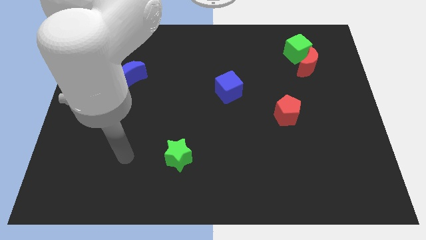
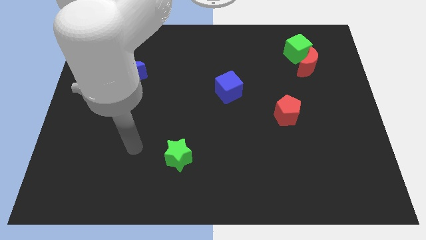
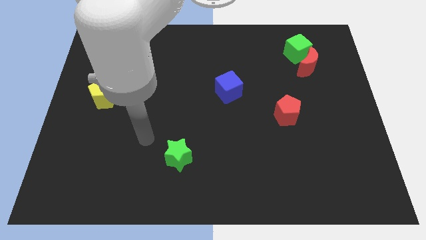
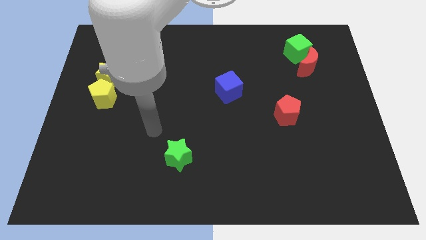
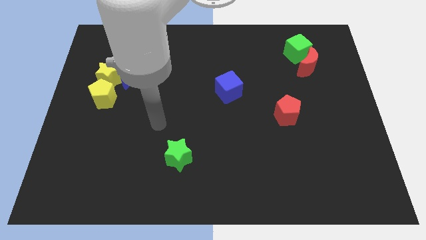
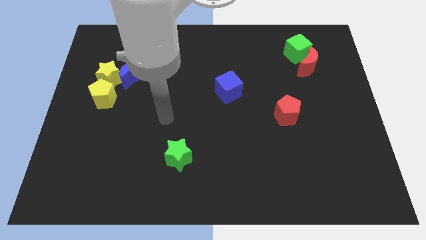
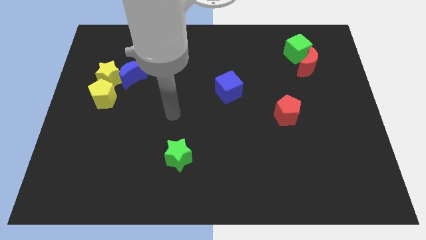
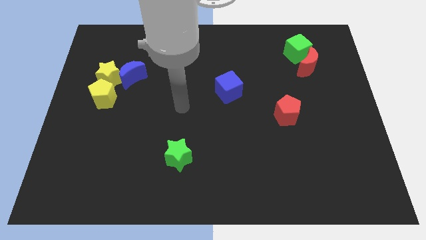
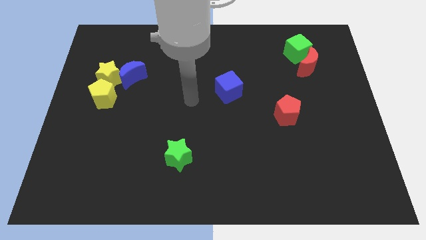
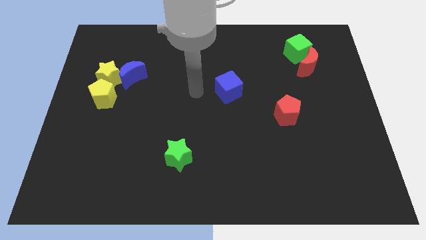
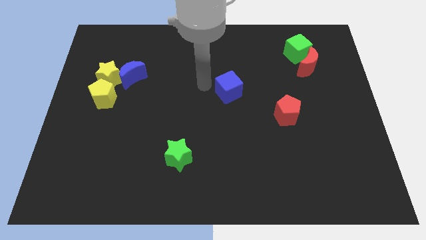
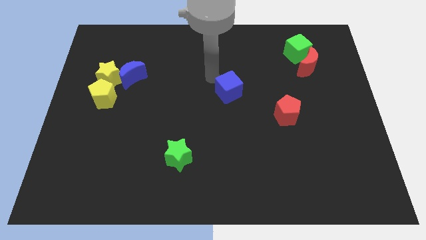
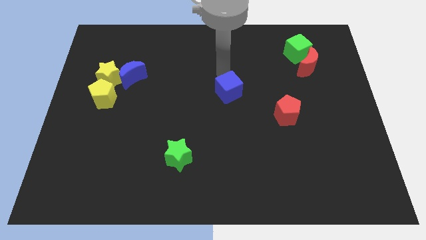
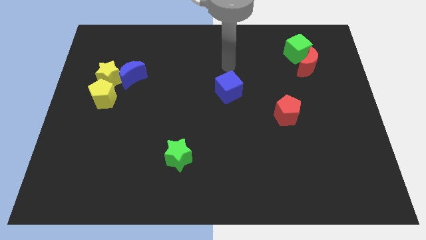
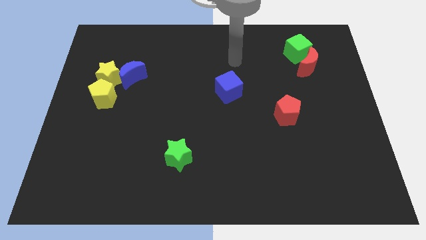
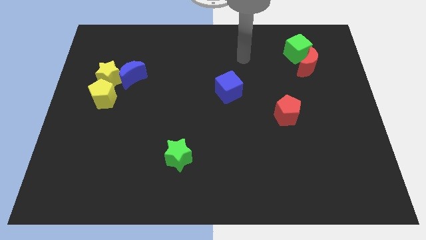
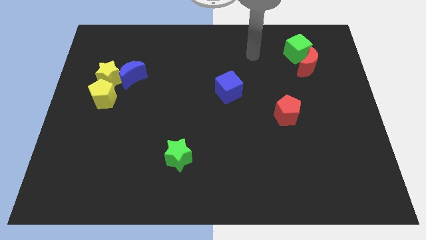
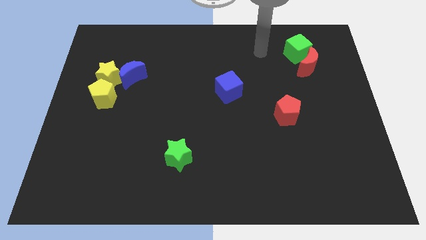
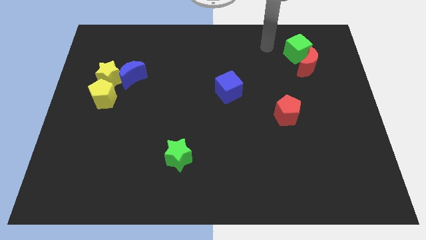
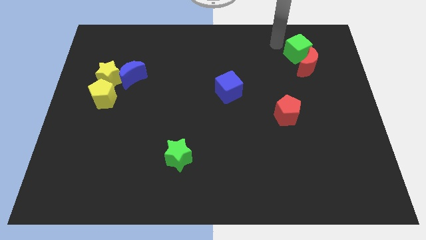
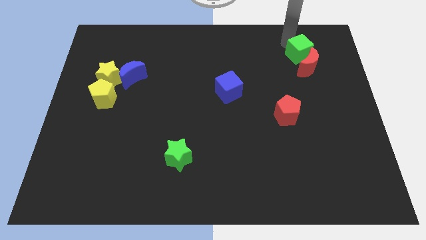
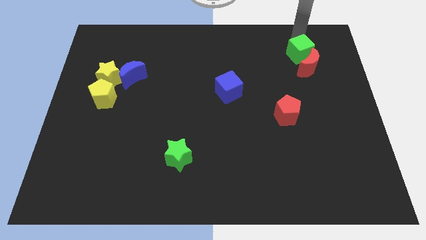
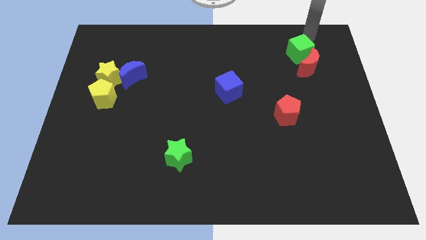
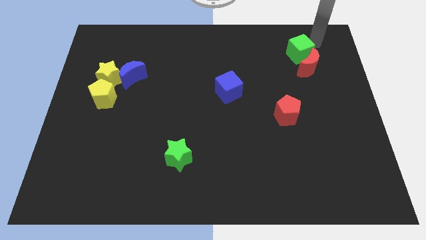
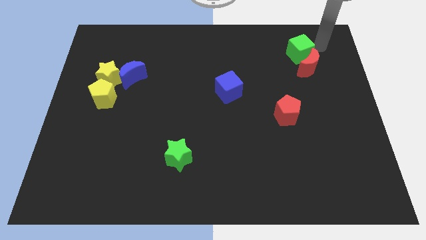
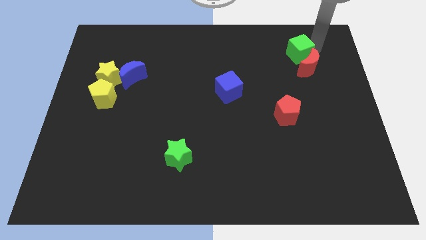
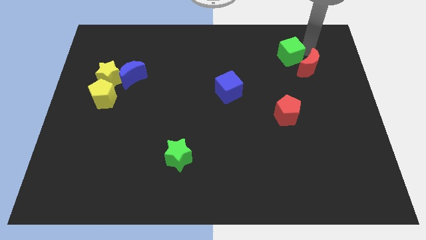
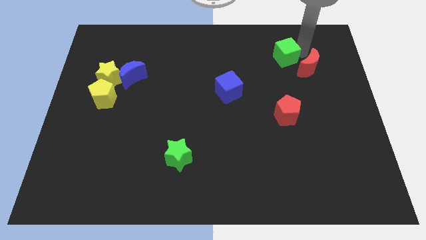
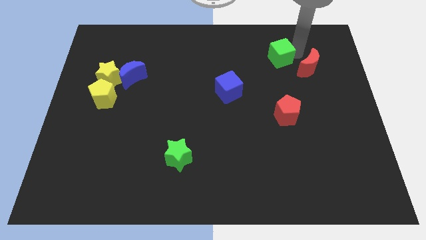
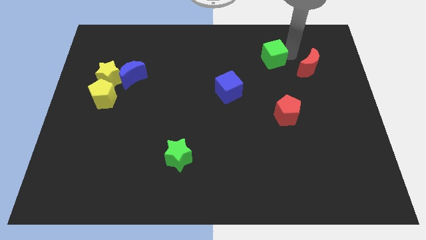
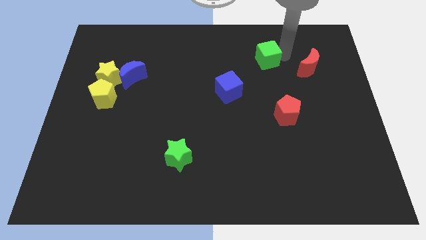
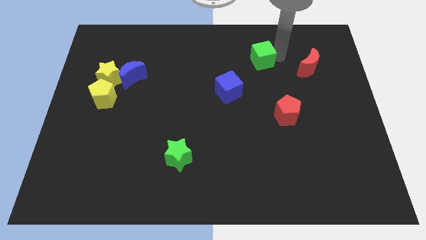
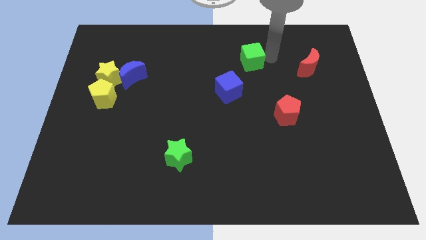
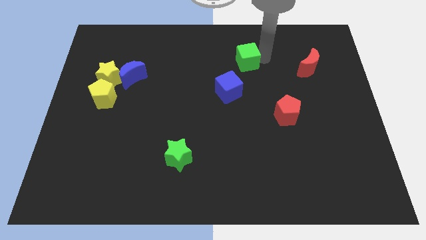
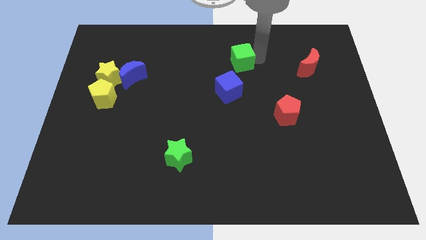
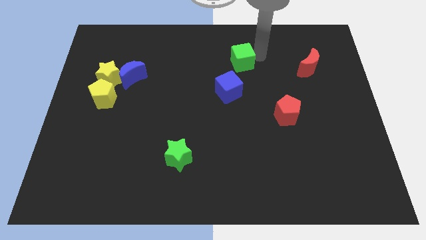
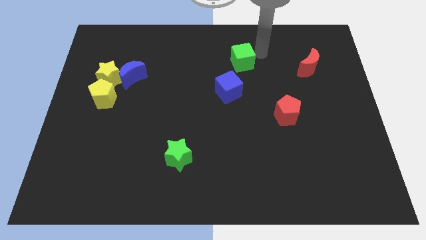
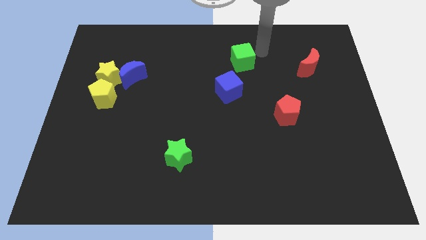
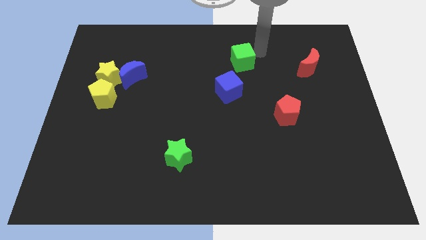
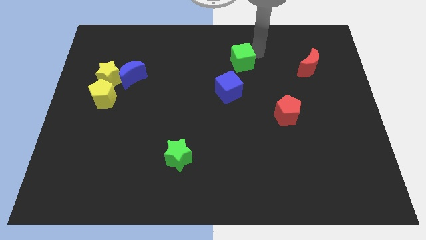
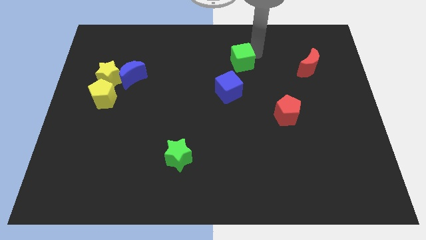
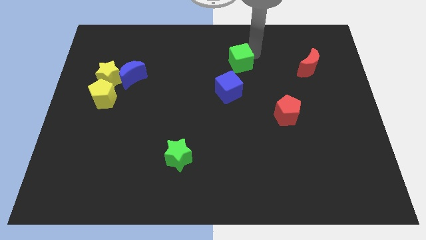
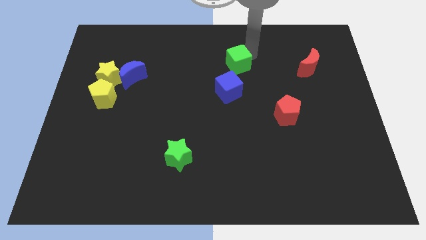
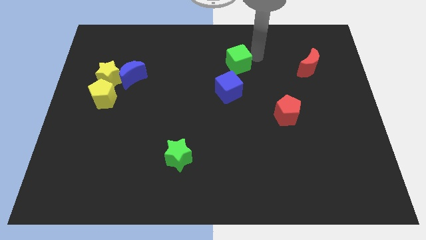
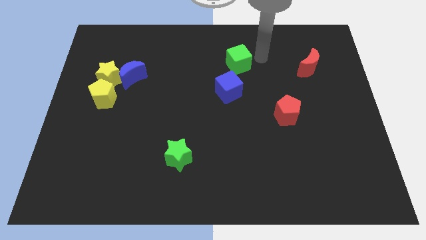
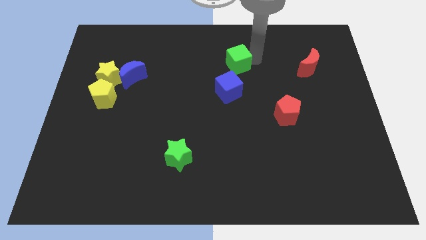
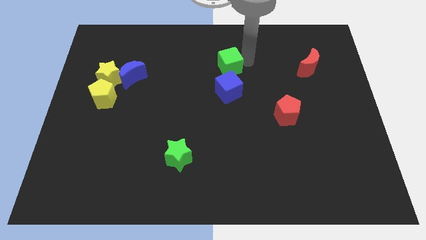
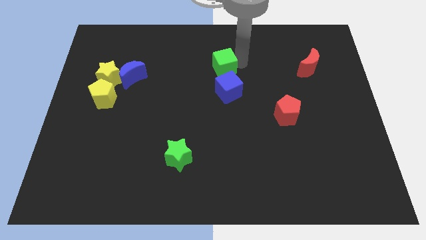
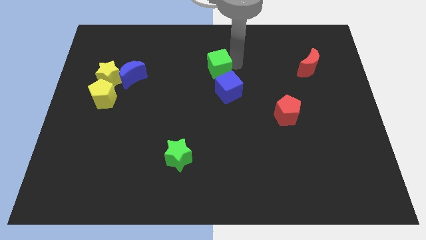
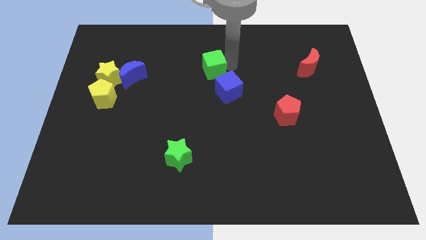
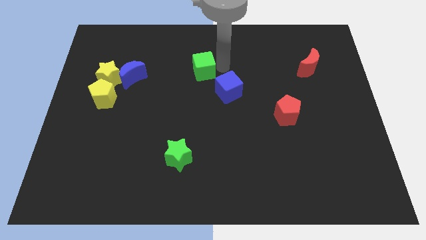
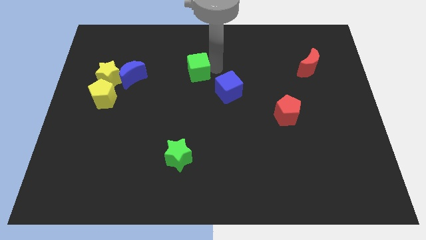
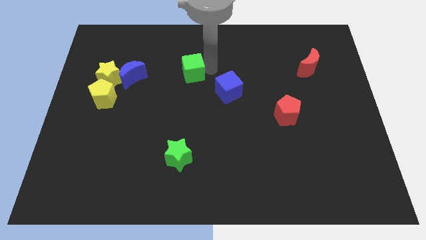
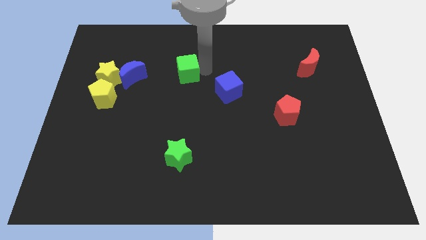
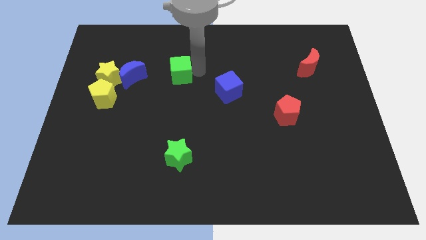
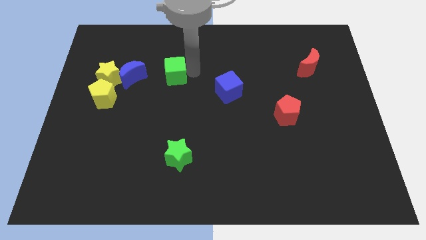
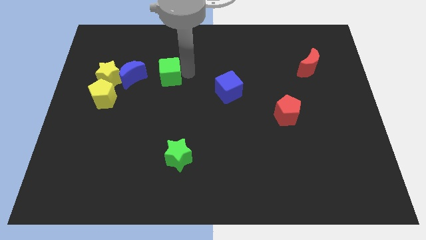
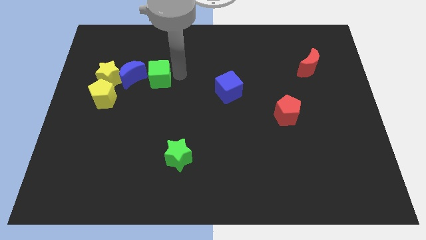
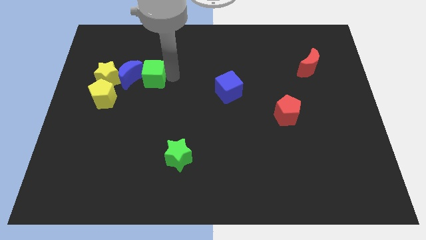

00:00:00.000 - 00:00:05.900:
push the green cube next to the blue moon

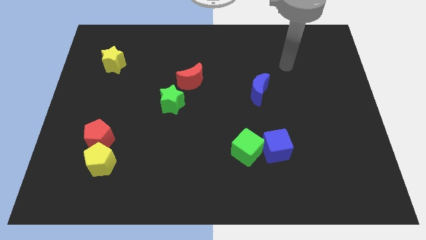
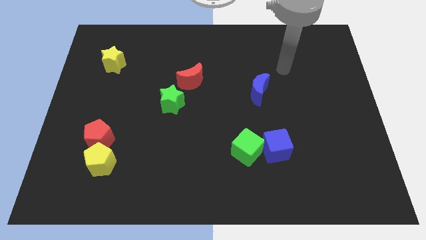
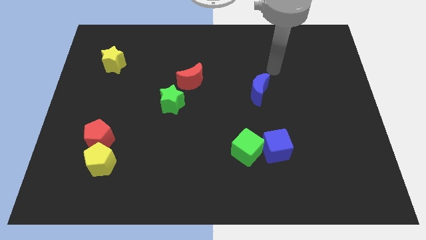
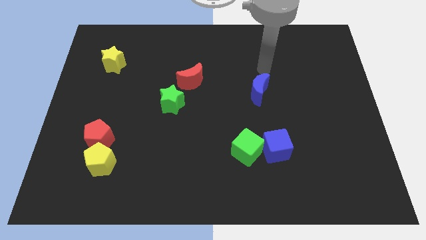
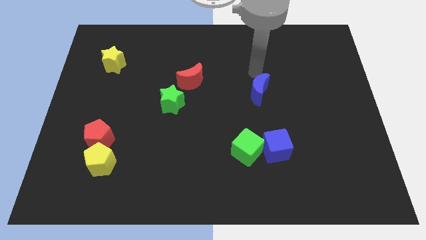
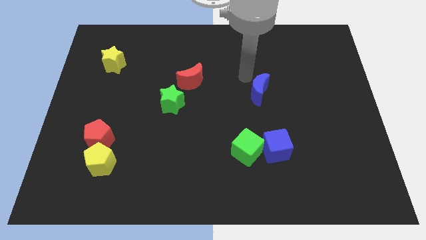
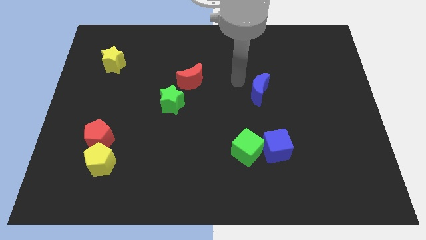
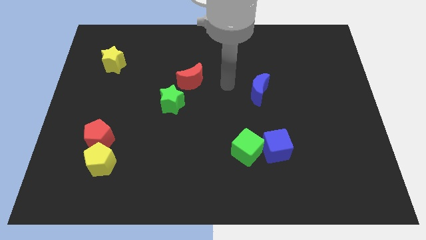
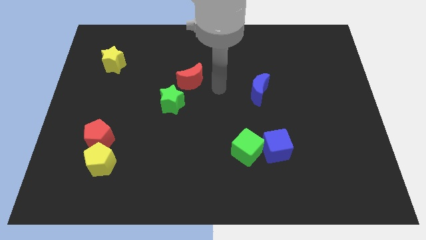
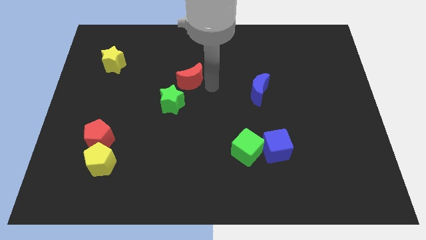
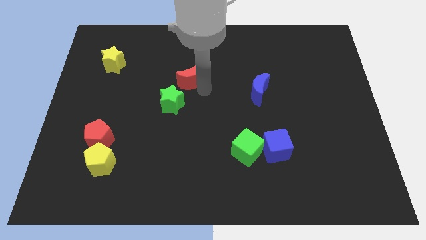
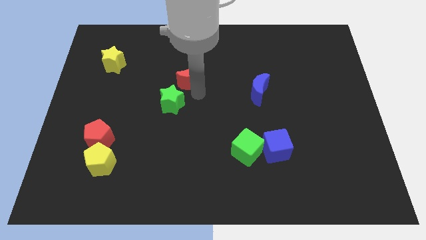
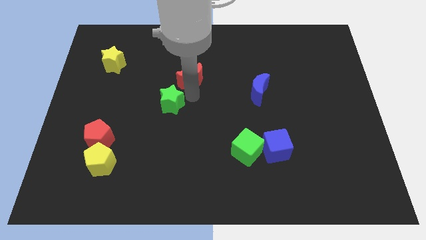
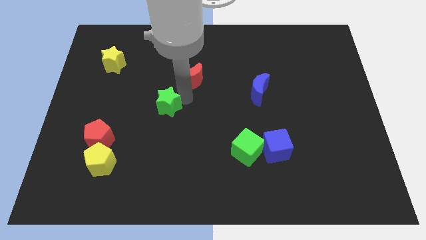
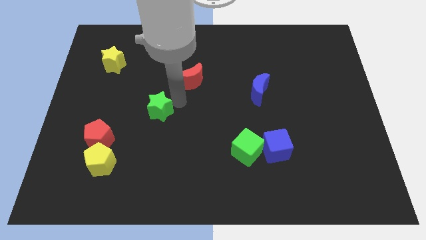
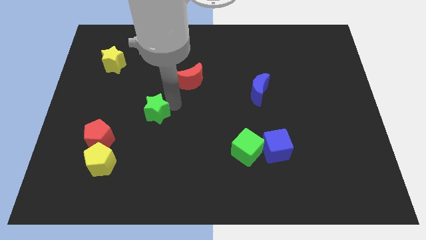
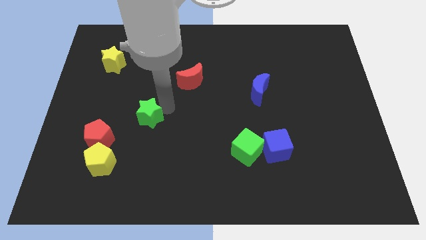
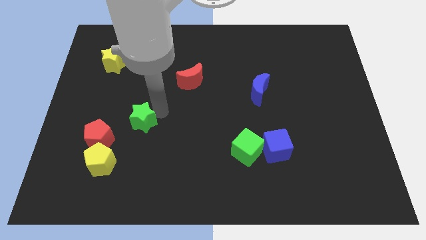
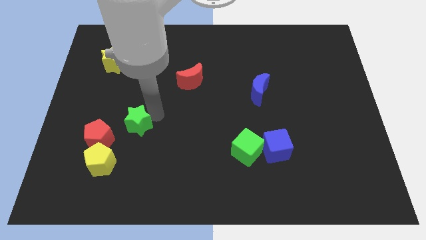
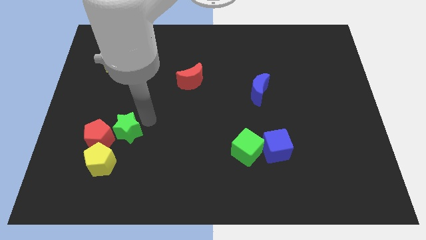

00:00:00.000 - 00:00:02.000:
put the green star close to the red pentagon
